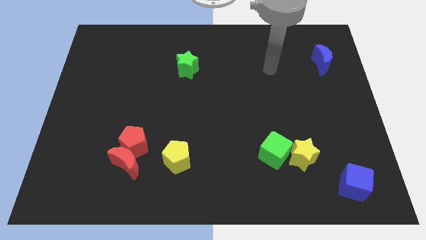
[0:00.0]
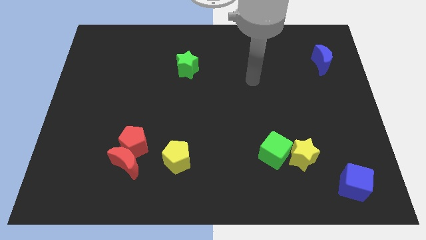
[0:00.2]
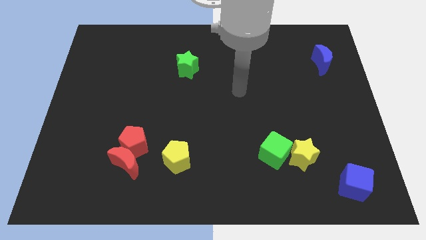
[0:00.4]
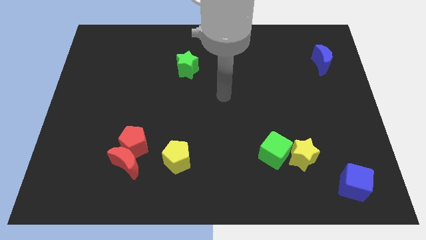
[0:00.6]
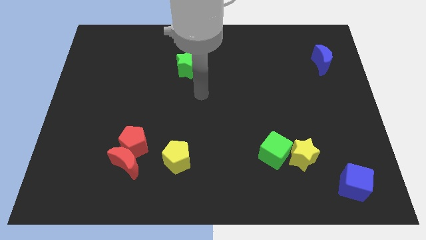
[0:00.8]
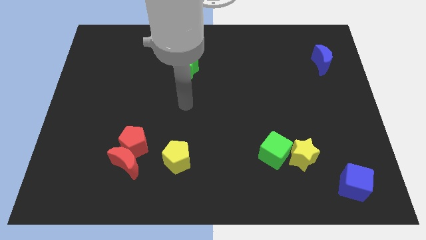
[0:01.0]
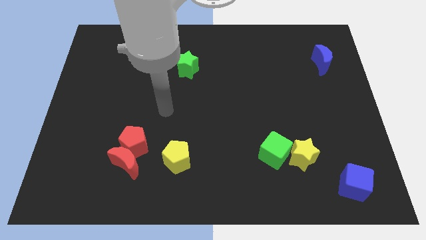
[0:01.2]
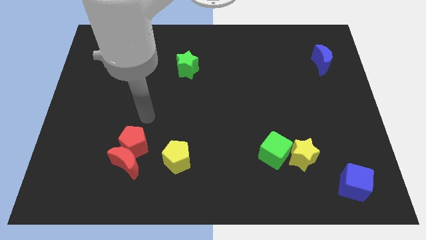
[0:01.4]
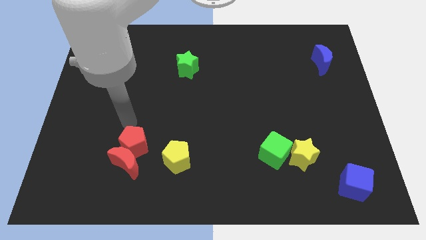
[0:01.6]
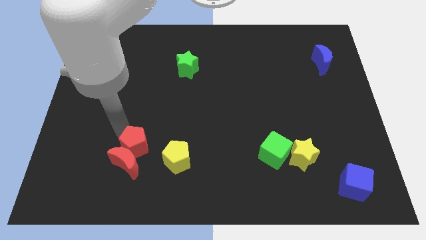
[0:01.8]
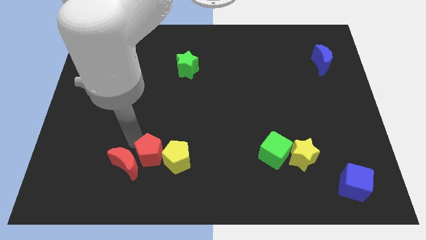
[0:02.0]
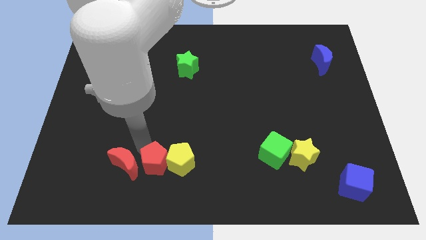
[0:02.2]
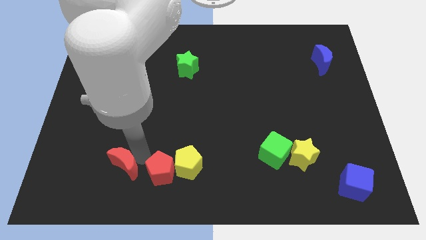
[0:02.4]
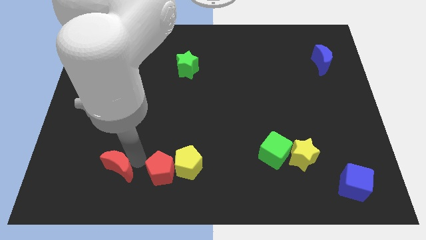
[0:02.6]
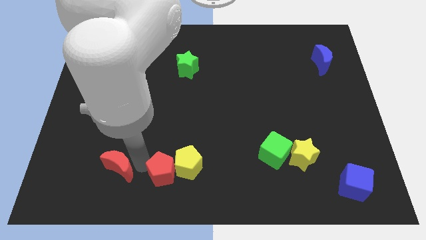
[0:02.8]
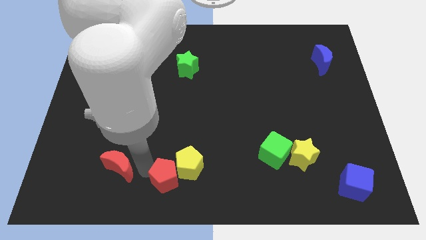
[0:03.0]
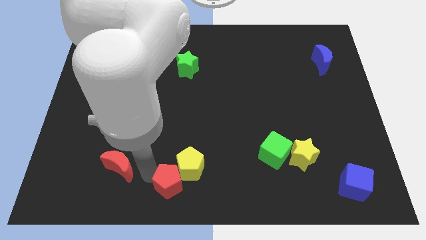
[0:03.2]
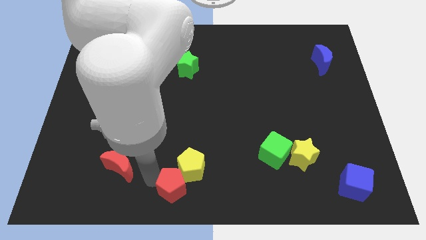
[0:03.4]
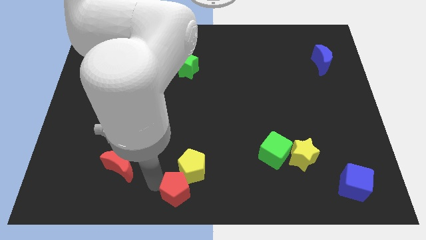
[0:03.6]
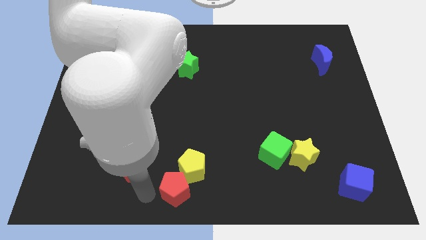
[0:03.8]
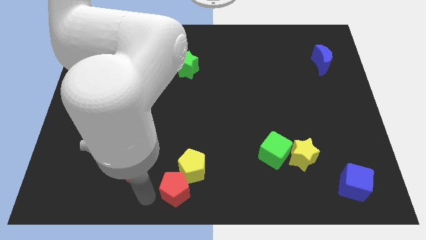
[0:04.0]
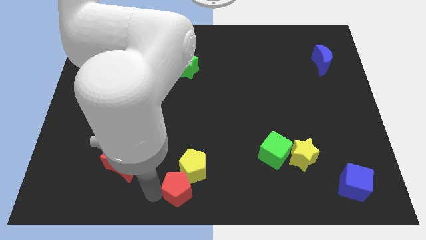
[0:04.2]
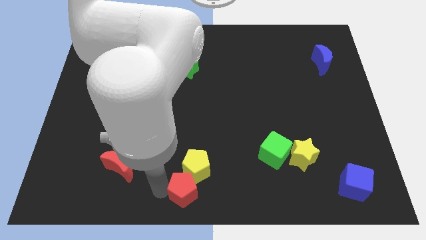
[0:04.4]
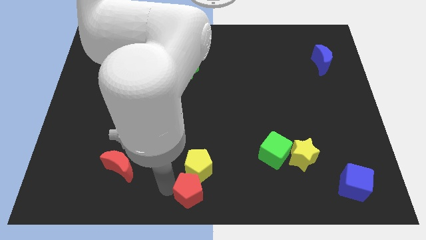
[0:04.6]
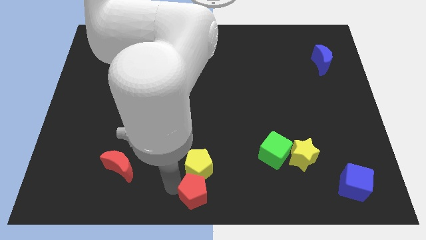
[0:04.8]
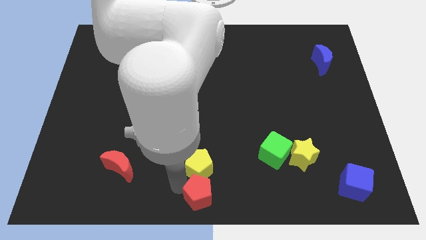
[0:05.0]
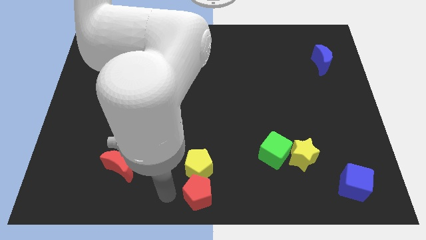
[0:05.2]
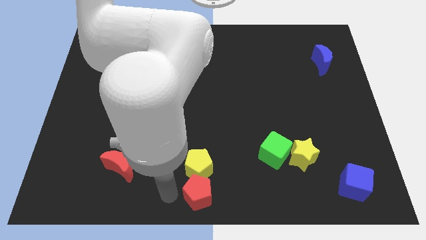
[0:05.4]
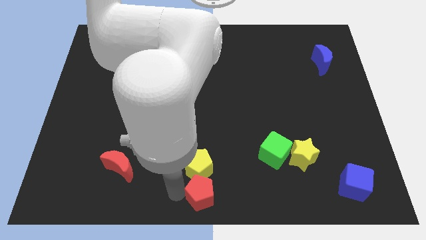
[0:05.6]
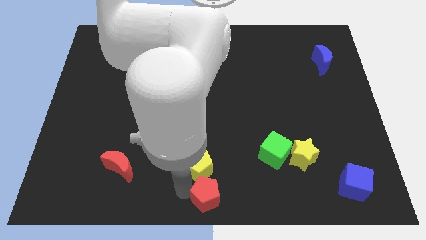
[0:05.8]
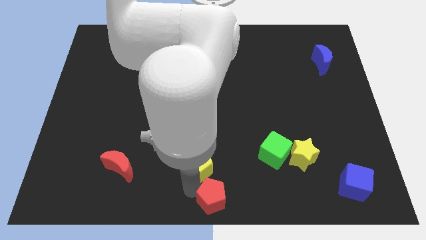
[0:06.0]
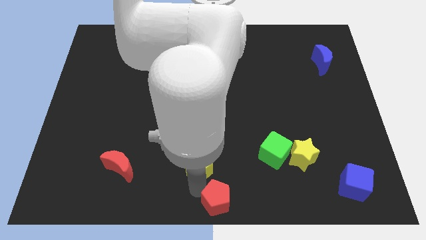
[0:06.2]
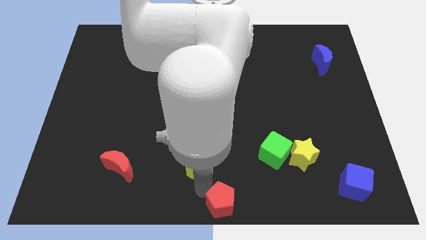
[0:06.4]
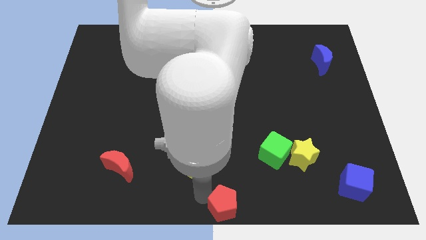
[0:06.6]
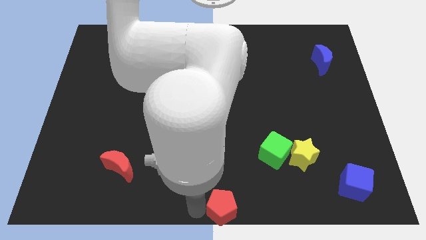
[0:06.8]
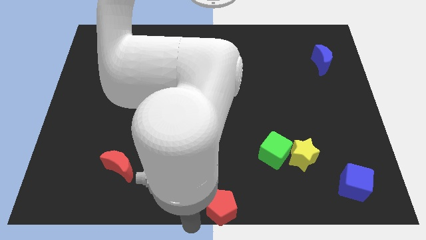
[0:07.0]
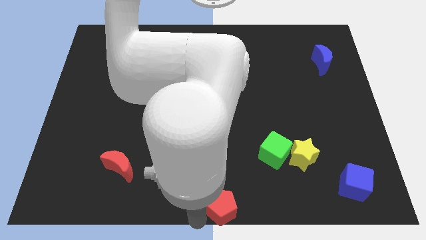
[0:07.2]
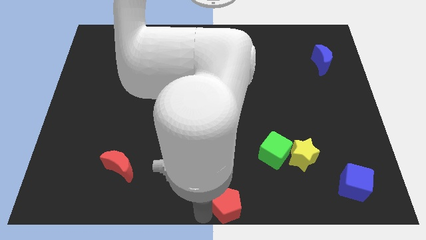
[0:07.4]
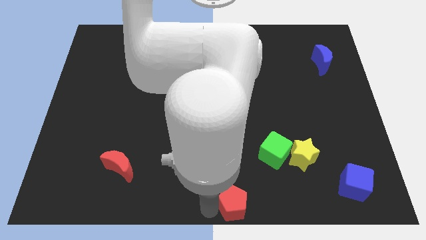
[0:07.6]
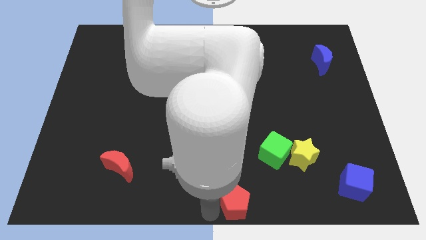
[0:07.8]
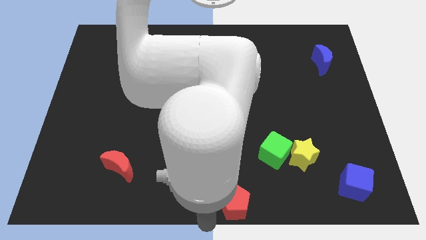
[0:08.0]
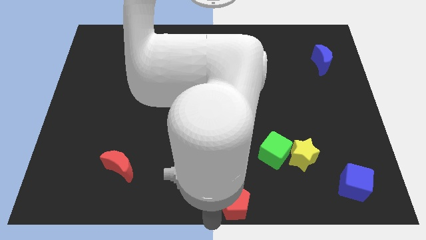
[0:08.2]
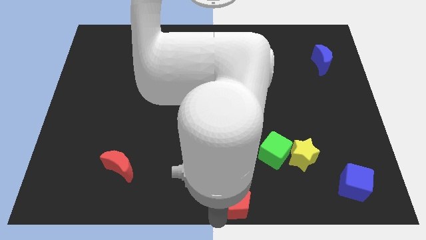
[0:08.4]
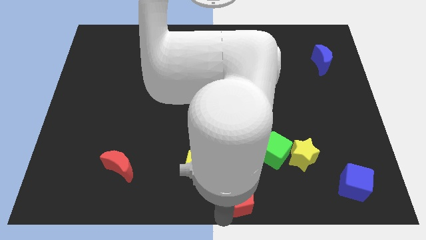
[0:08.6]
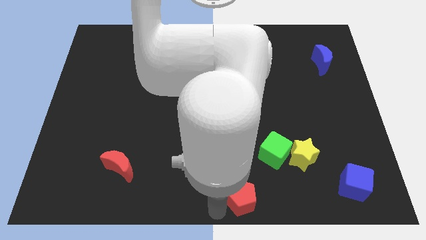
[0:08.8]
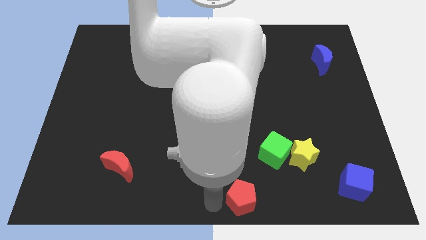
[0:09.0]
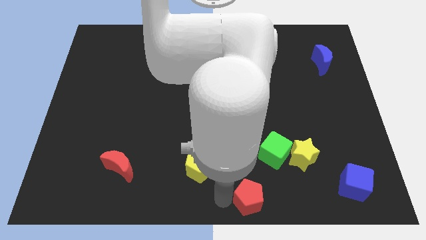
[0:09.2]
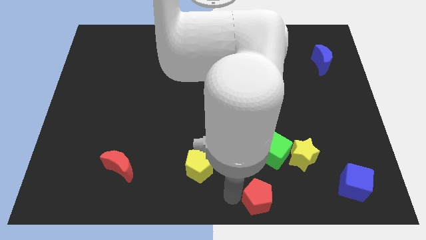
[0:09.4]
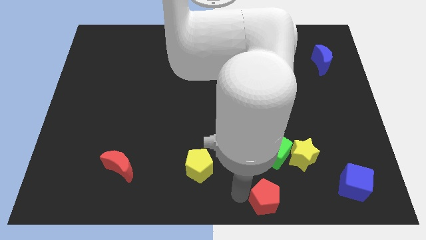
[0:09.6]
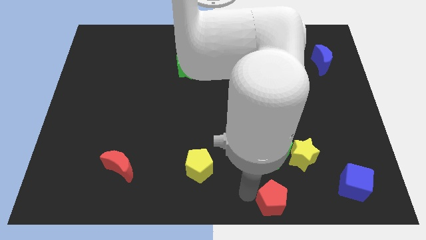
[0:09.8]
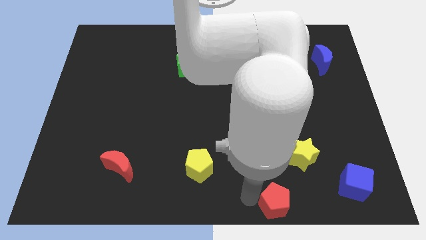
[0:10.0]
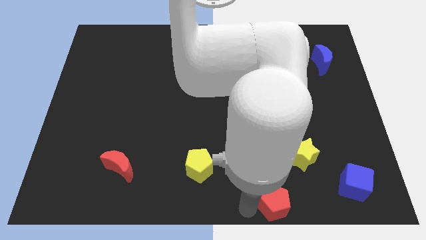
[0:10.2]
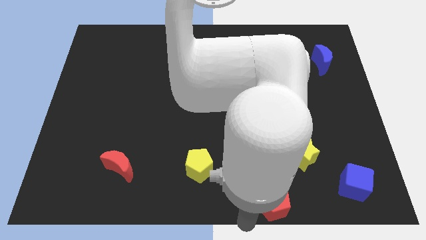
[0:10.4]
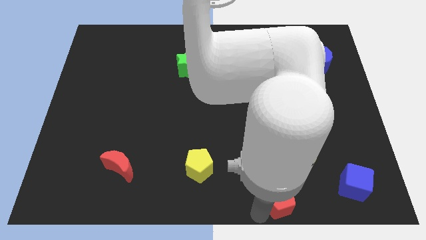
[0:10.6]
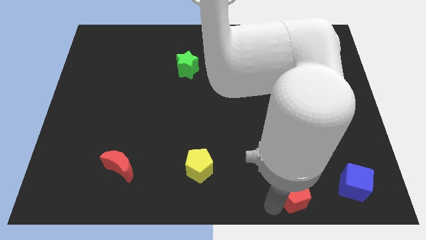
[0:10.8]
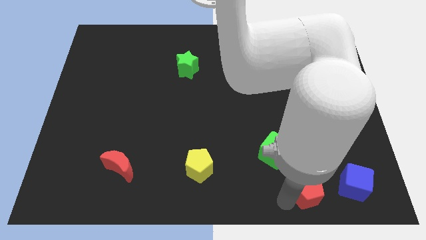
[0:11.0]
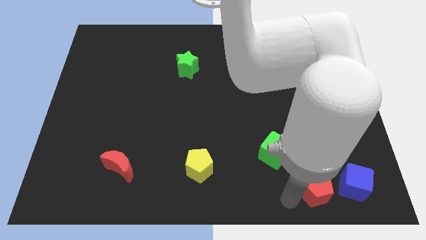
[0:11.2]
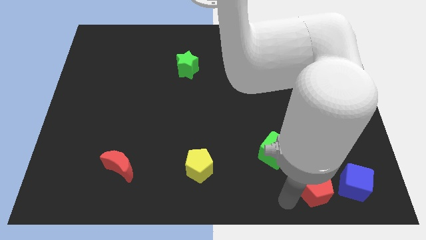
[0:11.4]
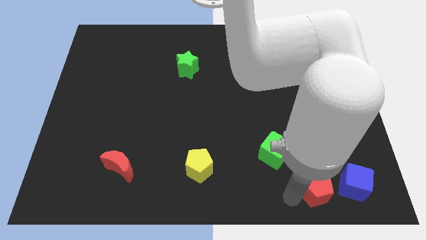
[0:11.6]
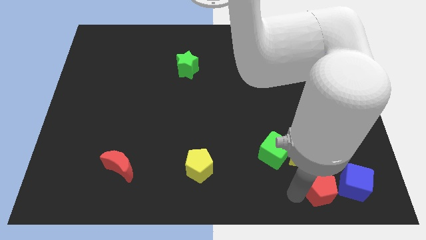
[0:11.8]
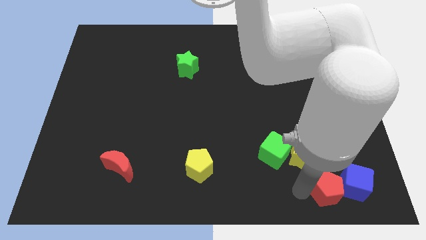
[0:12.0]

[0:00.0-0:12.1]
move the red pentagon next to the blue cube

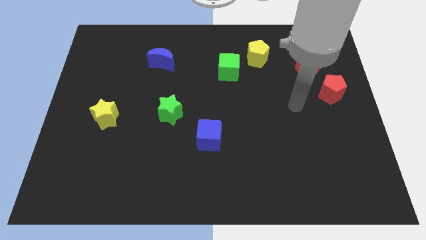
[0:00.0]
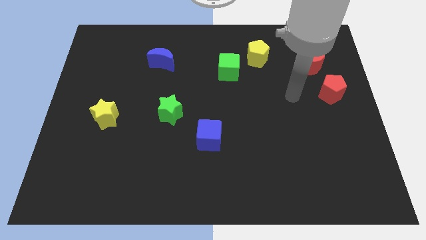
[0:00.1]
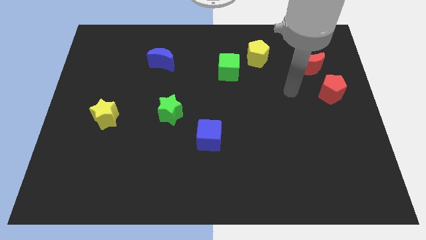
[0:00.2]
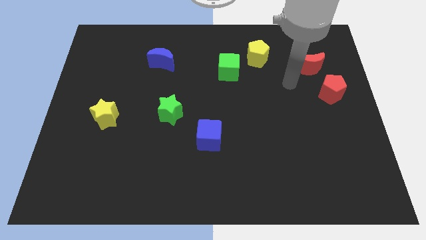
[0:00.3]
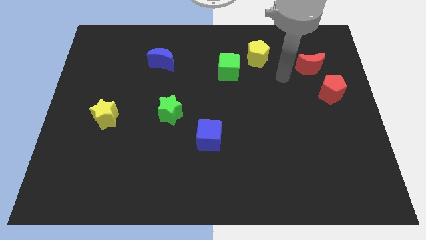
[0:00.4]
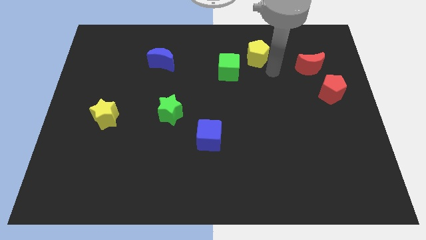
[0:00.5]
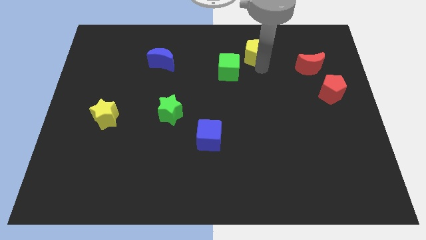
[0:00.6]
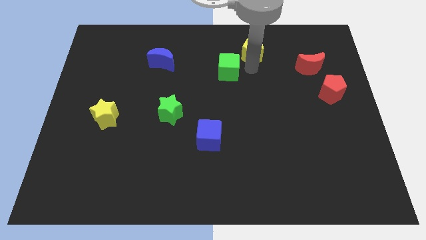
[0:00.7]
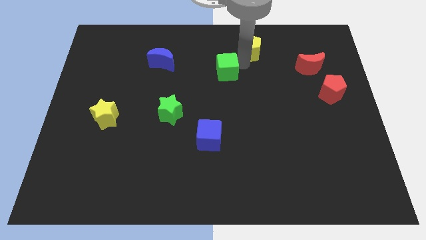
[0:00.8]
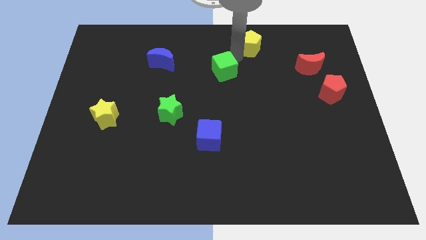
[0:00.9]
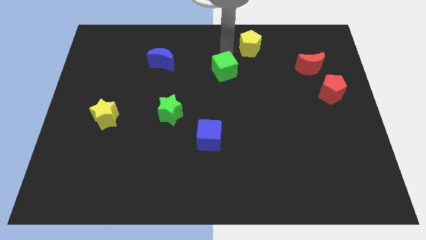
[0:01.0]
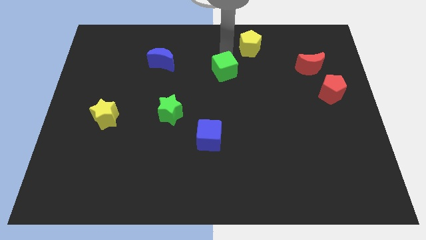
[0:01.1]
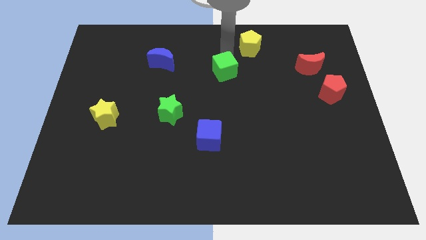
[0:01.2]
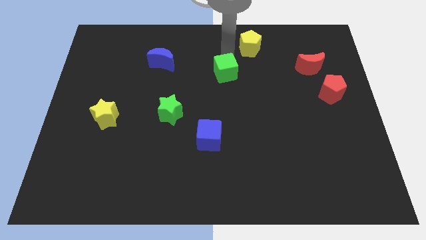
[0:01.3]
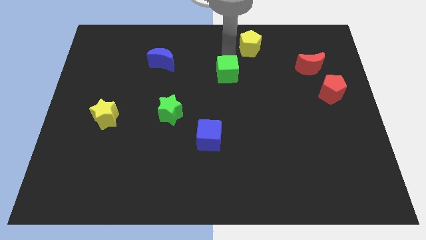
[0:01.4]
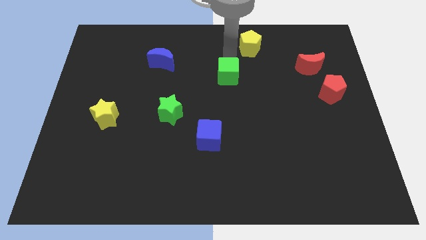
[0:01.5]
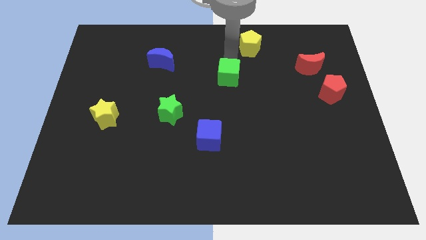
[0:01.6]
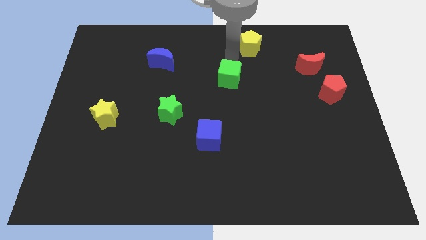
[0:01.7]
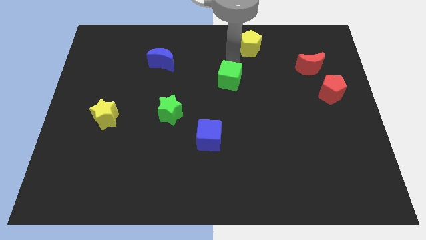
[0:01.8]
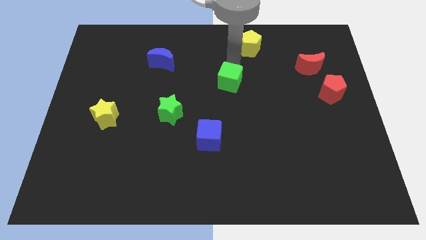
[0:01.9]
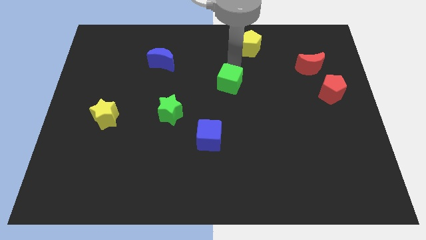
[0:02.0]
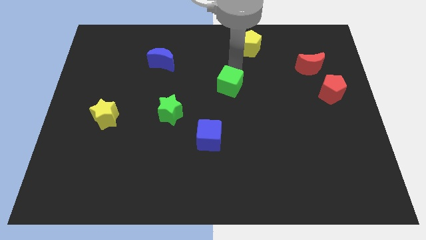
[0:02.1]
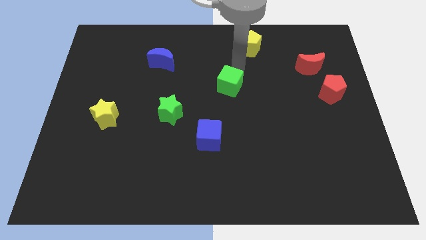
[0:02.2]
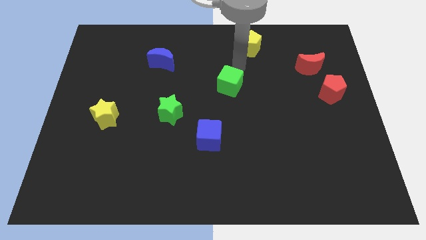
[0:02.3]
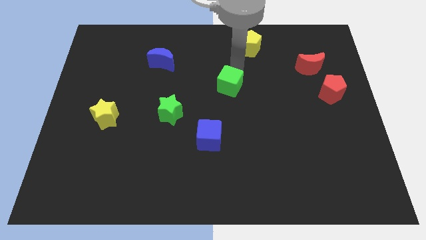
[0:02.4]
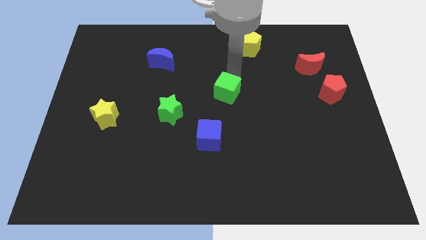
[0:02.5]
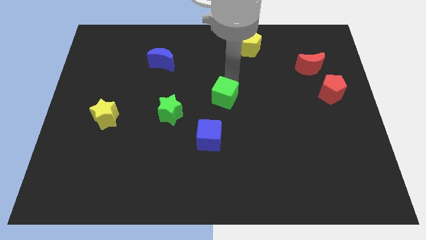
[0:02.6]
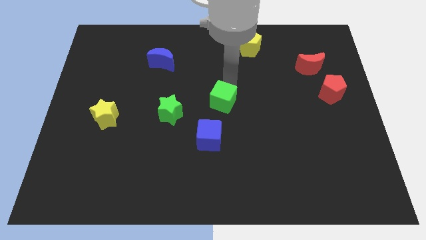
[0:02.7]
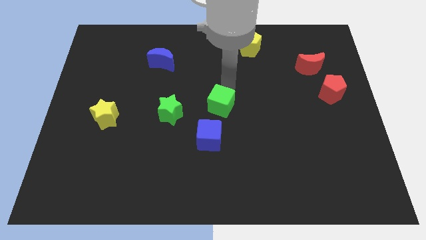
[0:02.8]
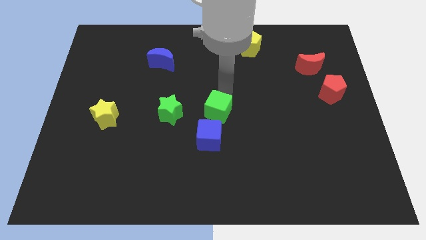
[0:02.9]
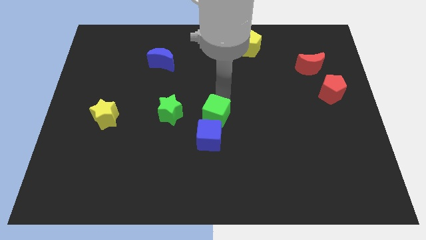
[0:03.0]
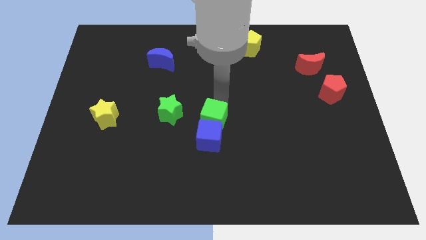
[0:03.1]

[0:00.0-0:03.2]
put the green cube to the blue cube
